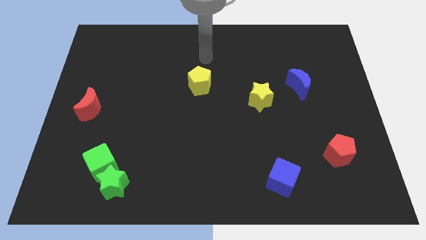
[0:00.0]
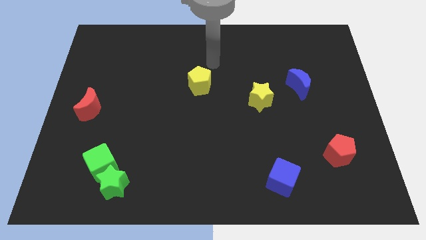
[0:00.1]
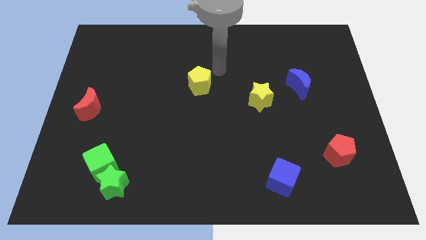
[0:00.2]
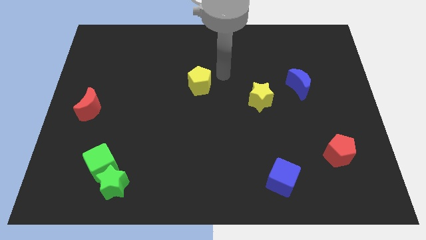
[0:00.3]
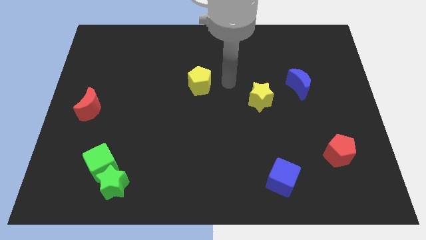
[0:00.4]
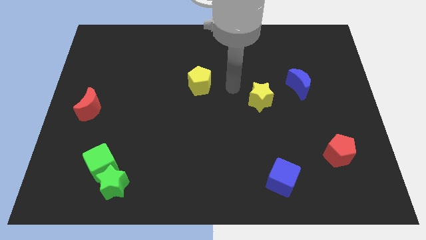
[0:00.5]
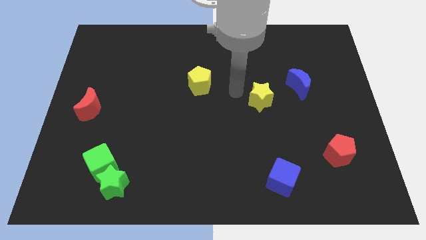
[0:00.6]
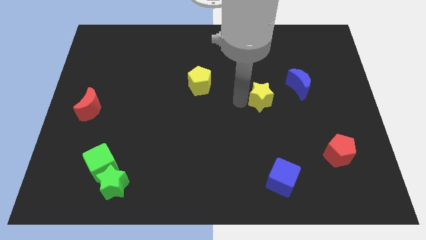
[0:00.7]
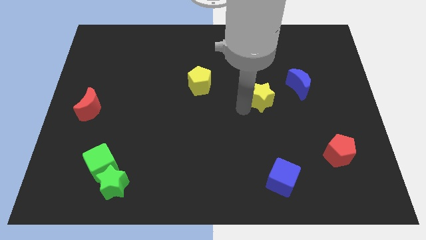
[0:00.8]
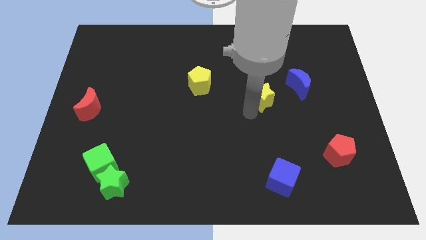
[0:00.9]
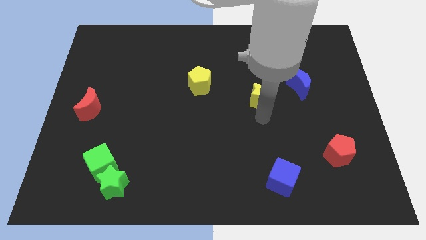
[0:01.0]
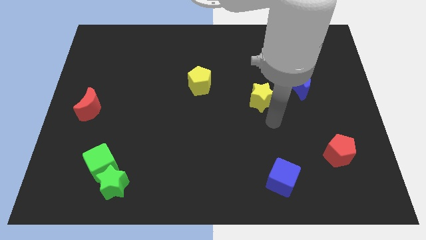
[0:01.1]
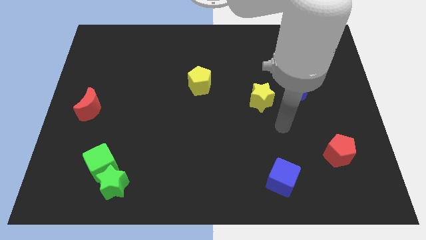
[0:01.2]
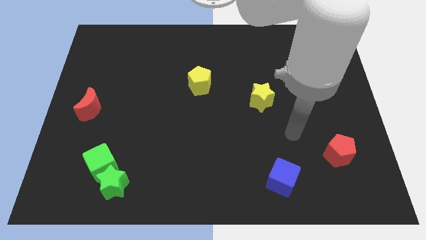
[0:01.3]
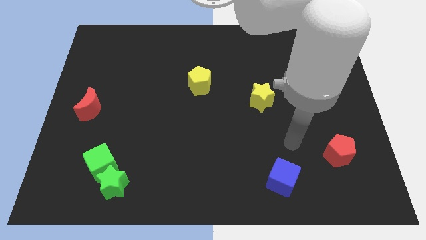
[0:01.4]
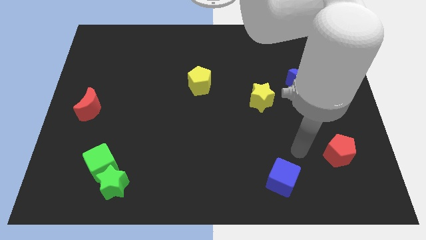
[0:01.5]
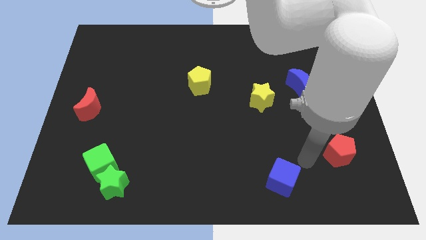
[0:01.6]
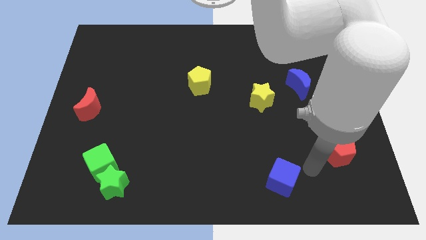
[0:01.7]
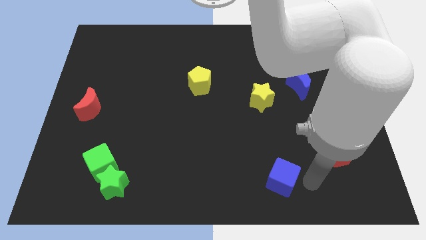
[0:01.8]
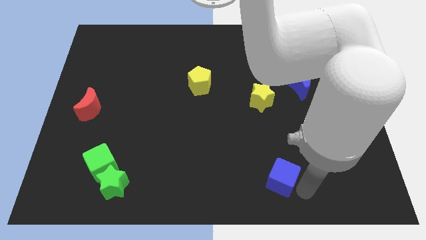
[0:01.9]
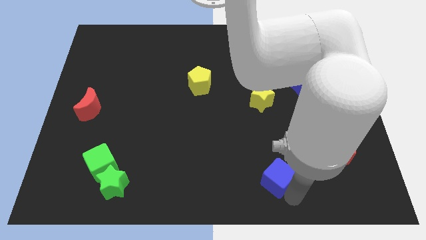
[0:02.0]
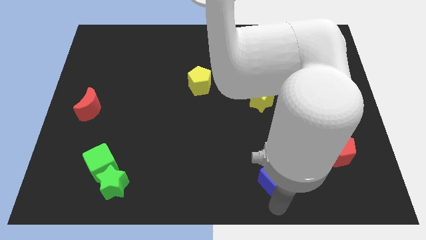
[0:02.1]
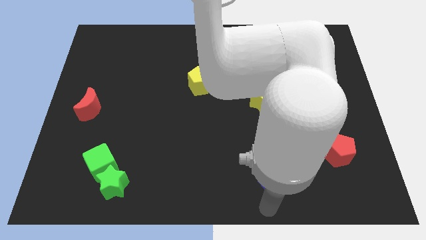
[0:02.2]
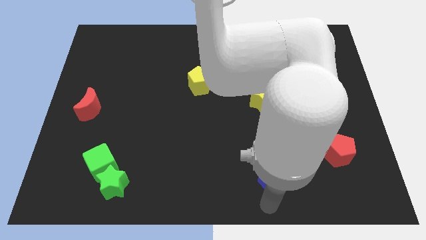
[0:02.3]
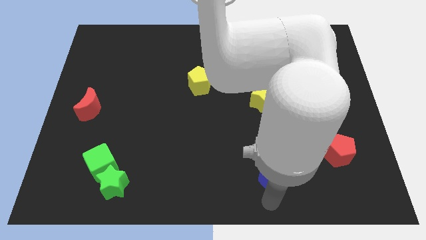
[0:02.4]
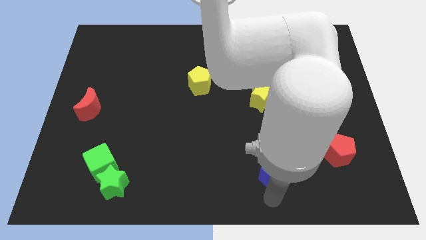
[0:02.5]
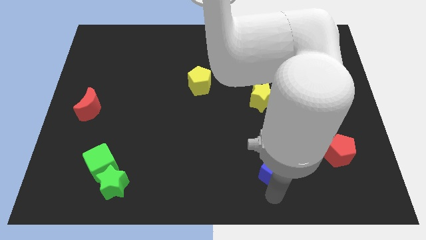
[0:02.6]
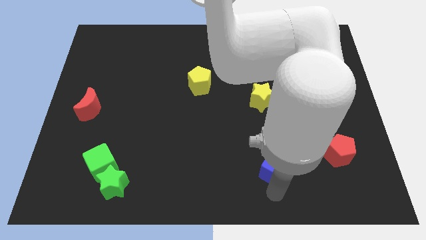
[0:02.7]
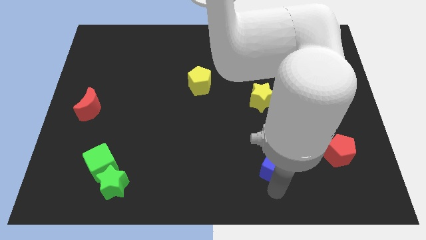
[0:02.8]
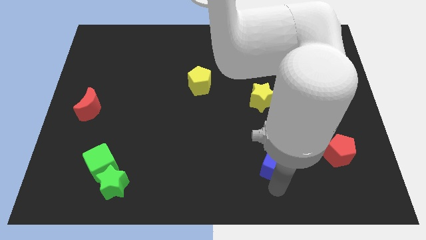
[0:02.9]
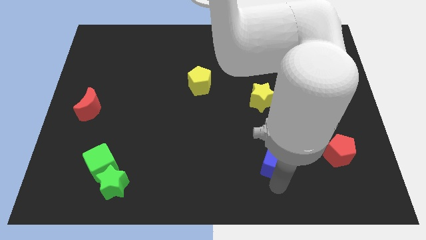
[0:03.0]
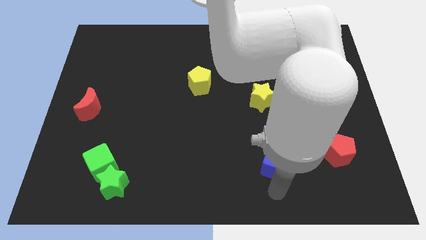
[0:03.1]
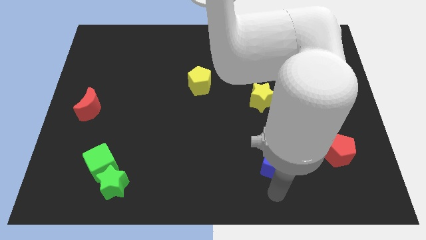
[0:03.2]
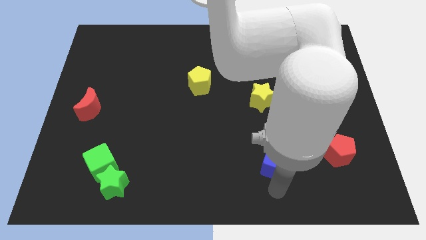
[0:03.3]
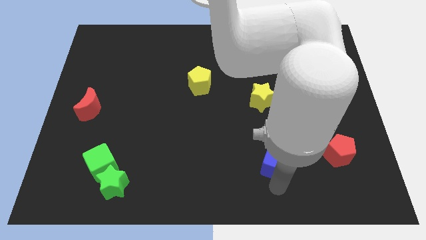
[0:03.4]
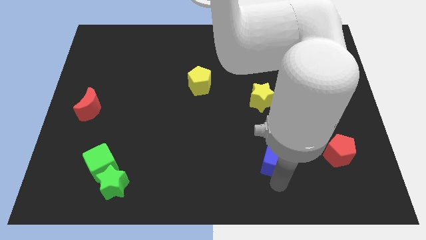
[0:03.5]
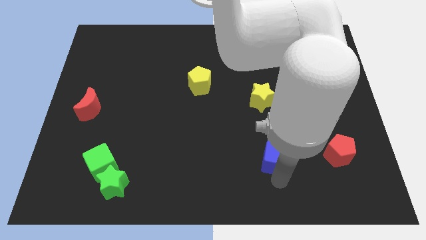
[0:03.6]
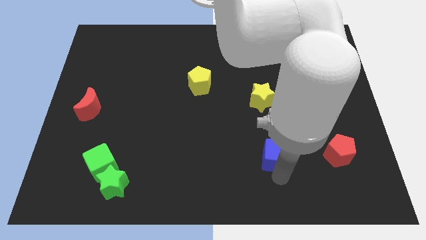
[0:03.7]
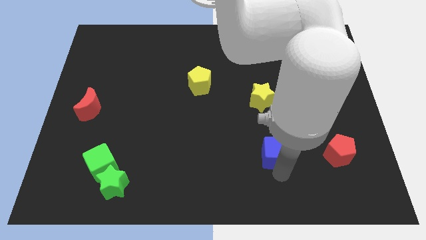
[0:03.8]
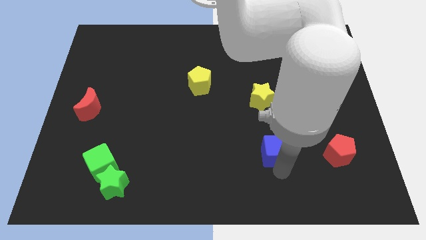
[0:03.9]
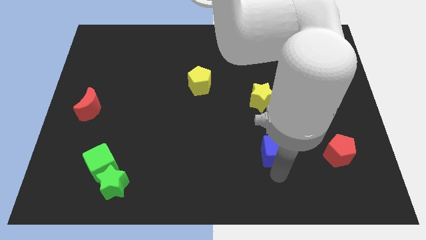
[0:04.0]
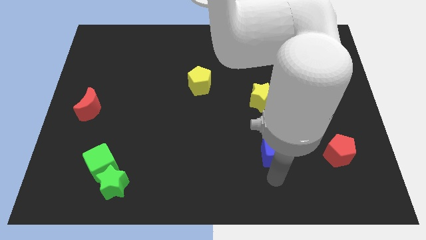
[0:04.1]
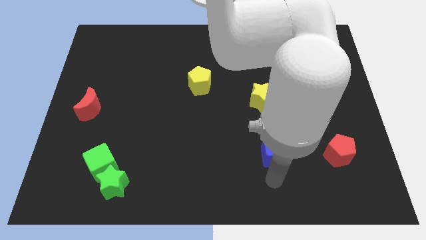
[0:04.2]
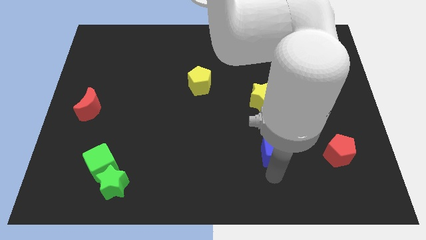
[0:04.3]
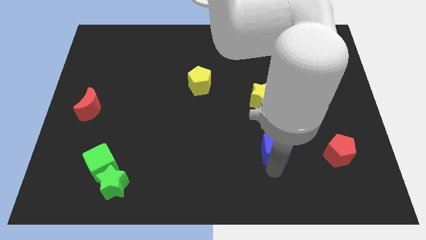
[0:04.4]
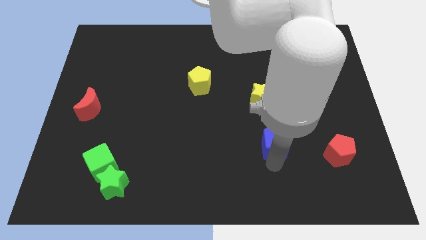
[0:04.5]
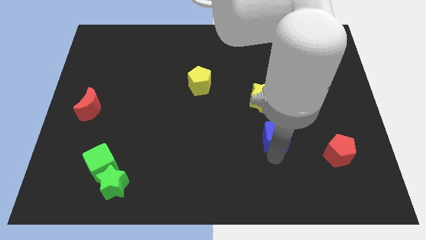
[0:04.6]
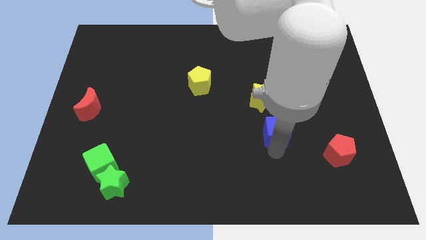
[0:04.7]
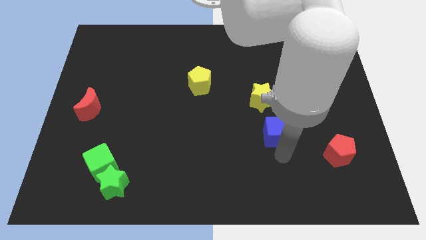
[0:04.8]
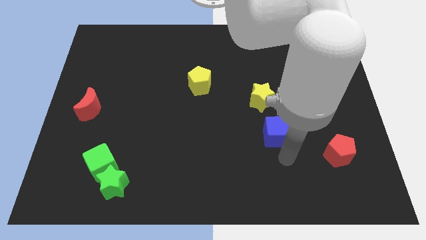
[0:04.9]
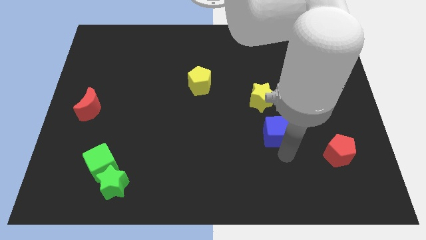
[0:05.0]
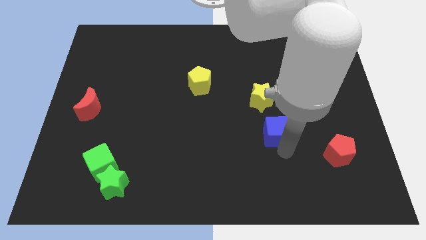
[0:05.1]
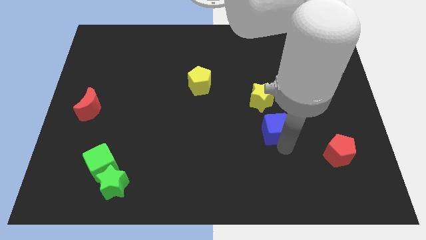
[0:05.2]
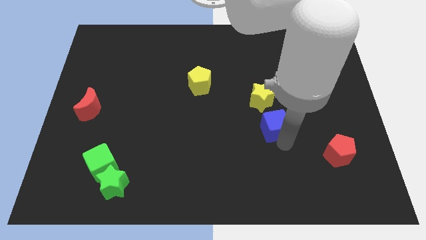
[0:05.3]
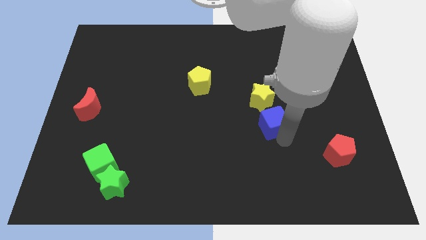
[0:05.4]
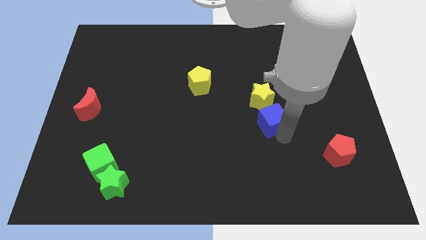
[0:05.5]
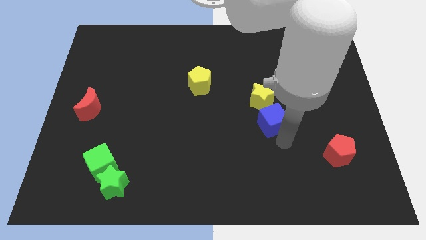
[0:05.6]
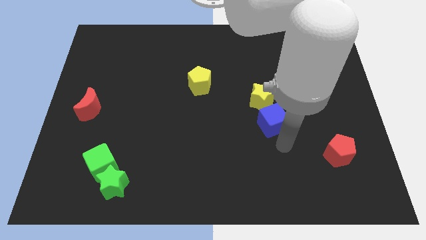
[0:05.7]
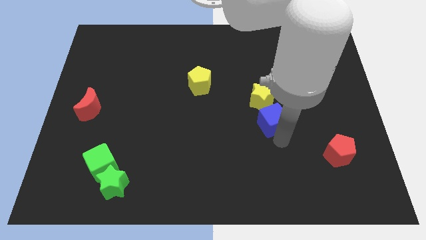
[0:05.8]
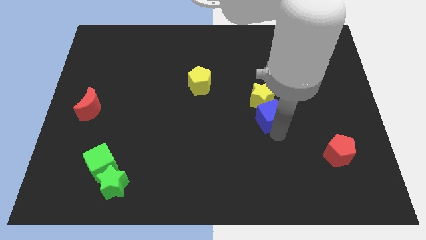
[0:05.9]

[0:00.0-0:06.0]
move the blue cube to the yellow star

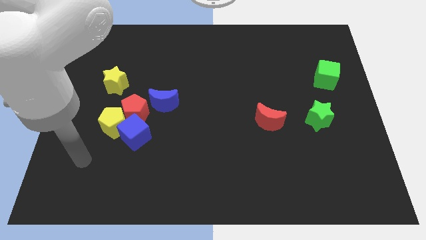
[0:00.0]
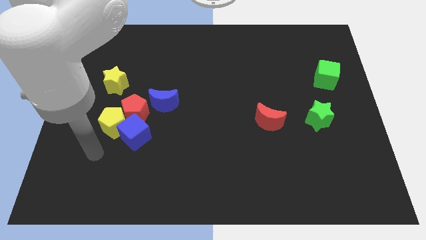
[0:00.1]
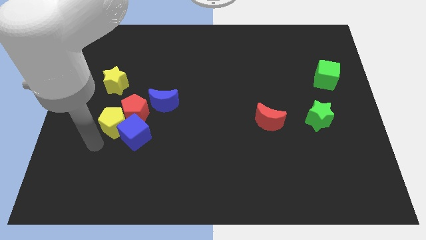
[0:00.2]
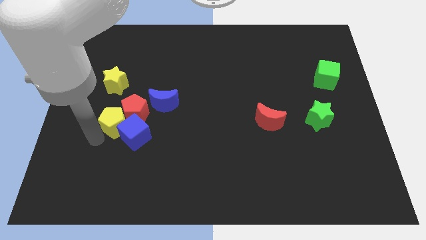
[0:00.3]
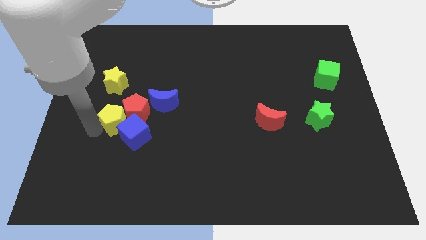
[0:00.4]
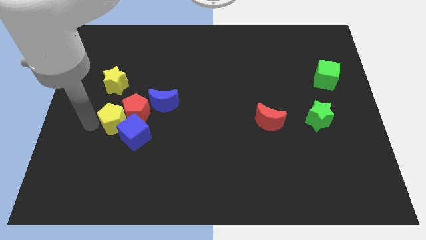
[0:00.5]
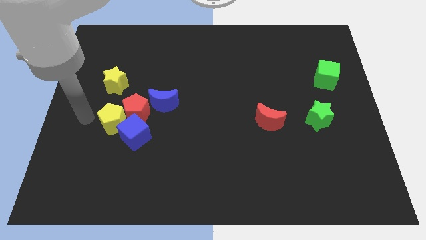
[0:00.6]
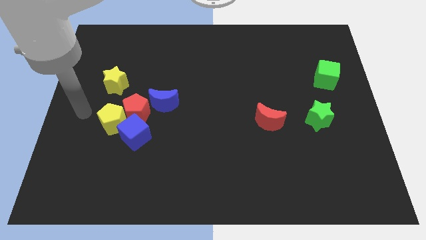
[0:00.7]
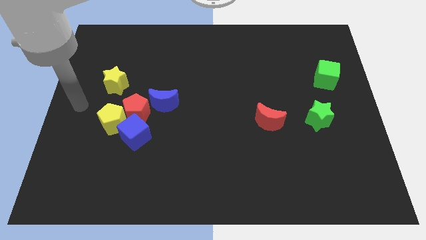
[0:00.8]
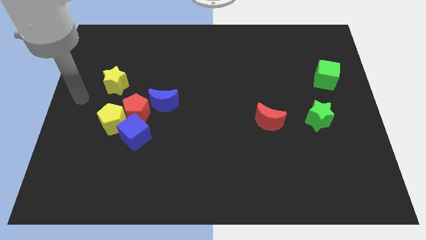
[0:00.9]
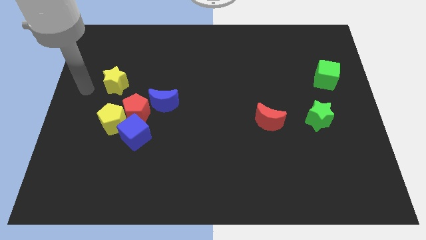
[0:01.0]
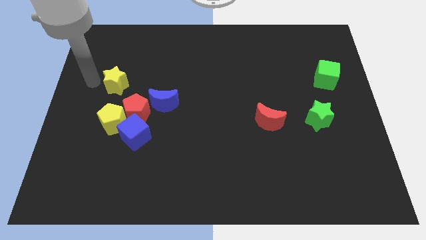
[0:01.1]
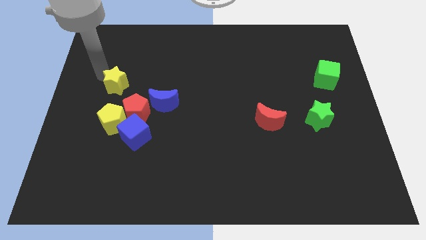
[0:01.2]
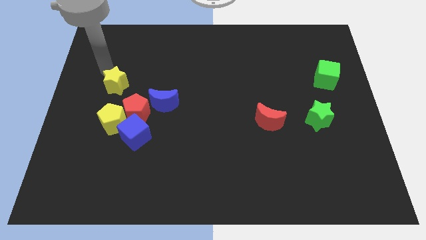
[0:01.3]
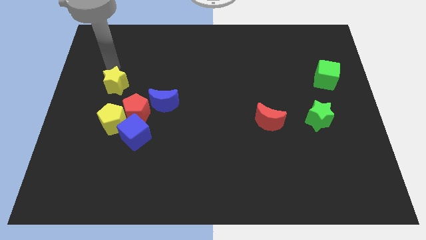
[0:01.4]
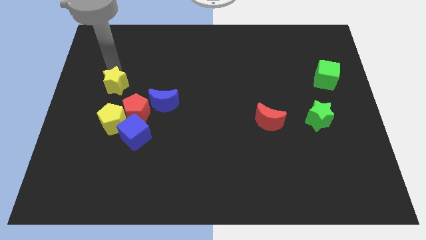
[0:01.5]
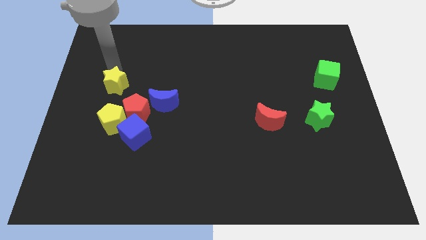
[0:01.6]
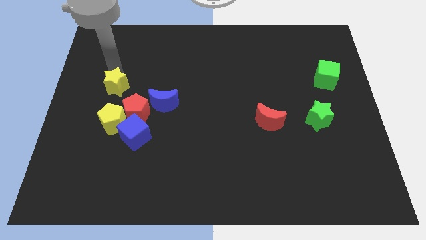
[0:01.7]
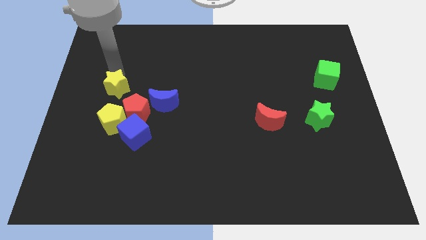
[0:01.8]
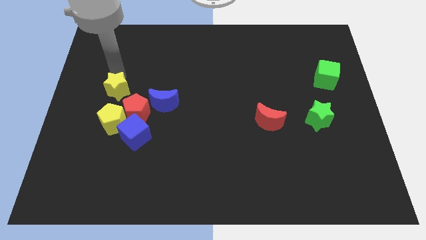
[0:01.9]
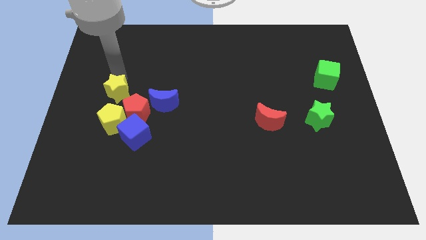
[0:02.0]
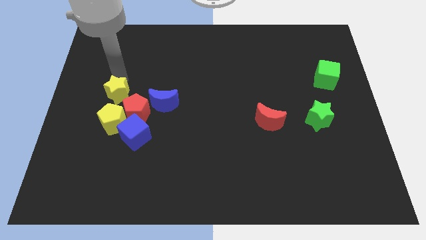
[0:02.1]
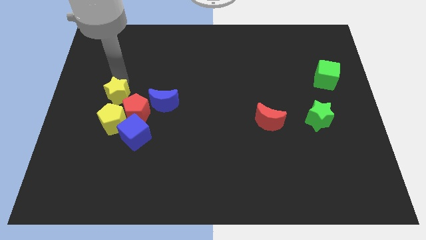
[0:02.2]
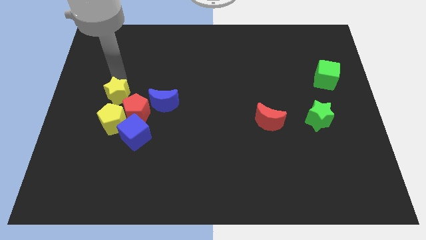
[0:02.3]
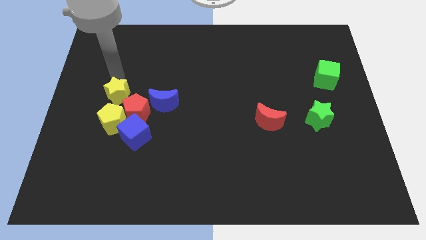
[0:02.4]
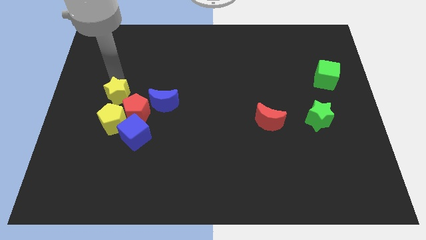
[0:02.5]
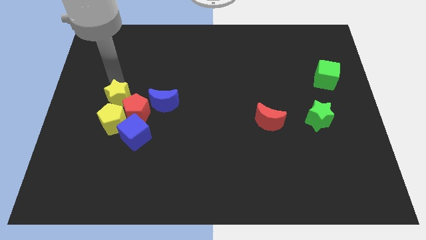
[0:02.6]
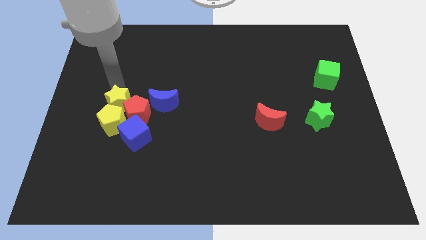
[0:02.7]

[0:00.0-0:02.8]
slide the yellow star towards the yellow pentagon
